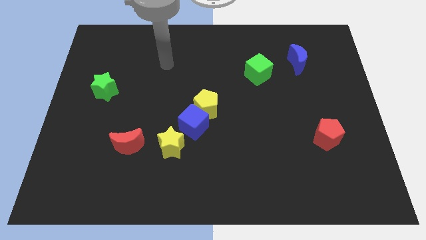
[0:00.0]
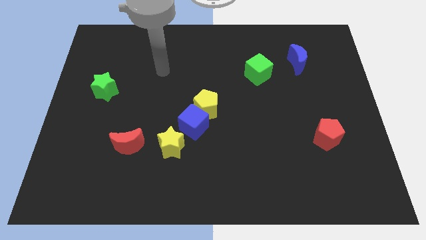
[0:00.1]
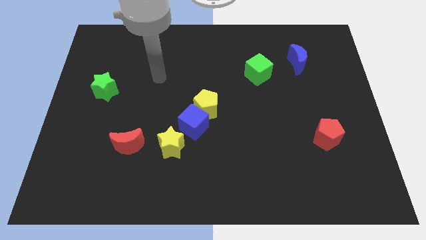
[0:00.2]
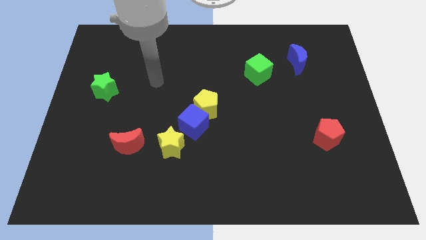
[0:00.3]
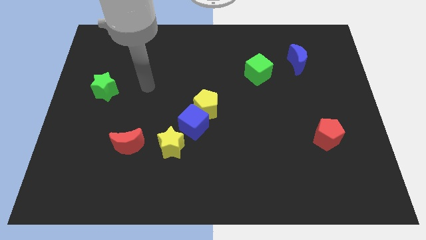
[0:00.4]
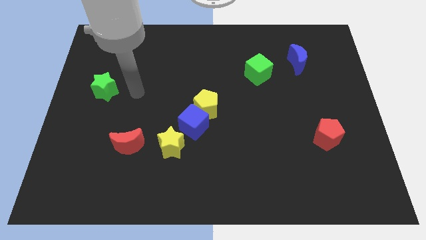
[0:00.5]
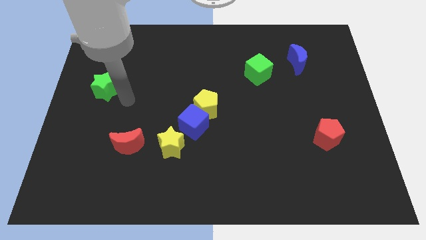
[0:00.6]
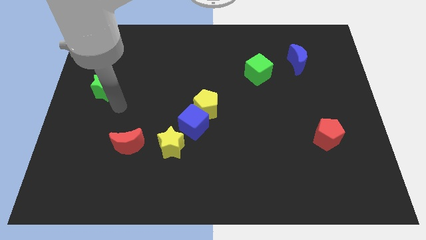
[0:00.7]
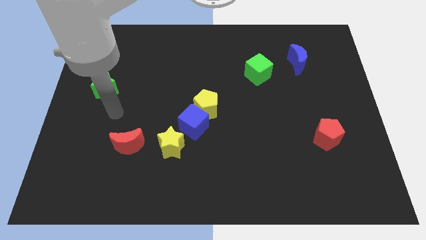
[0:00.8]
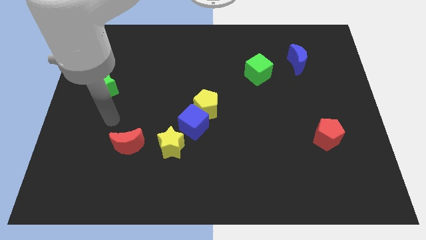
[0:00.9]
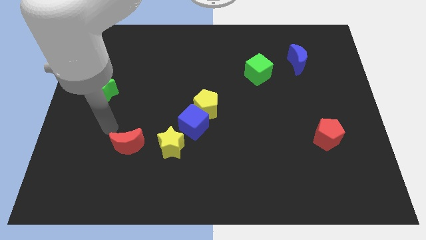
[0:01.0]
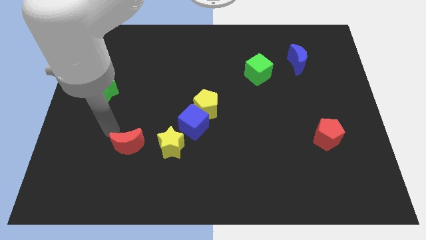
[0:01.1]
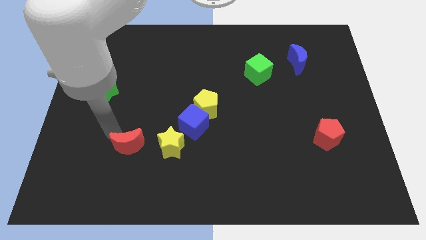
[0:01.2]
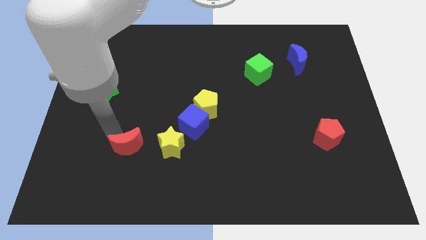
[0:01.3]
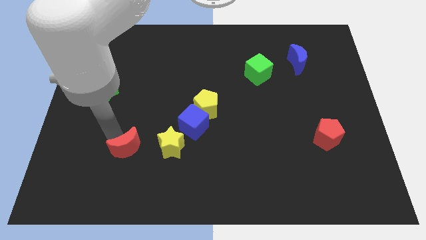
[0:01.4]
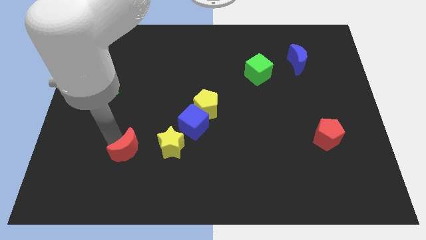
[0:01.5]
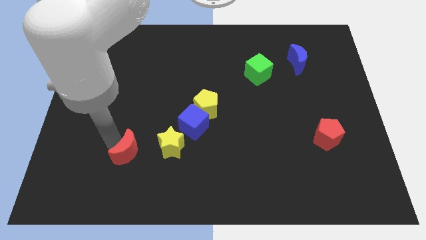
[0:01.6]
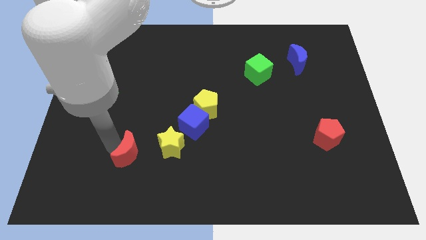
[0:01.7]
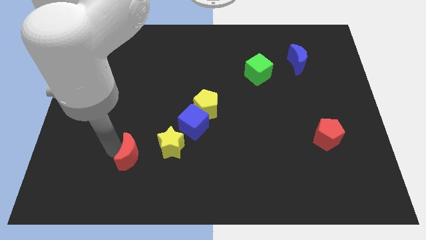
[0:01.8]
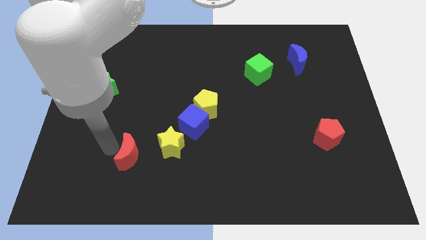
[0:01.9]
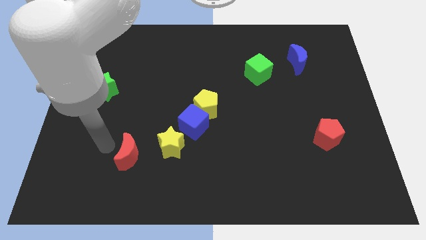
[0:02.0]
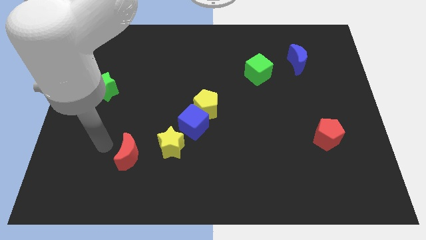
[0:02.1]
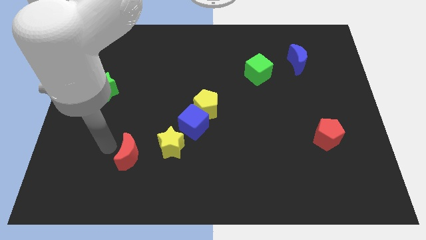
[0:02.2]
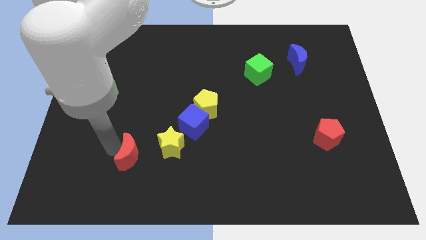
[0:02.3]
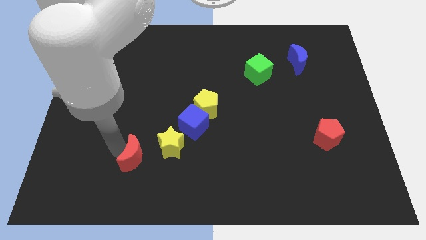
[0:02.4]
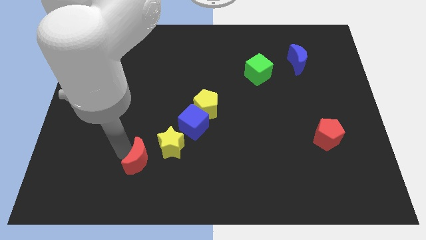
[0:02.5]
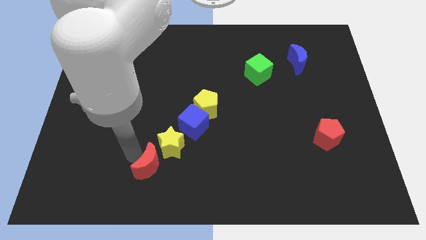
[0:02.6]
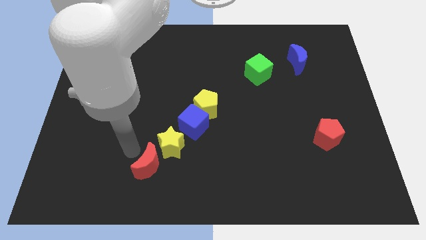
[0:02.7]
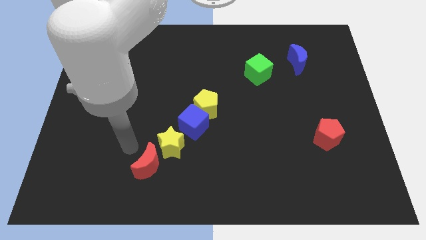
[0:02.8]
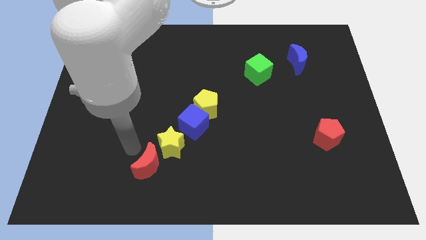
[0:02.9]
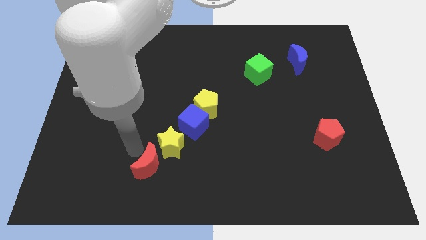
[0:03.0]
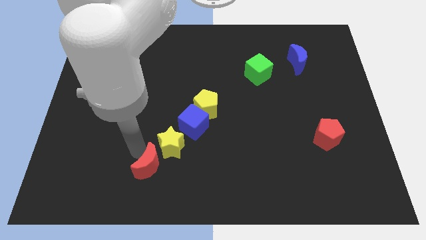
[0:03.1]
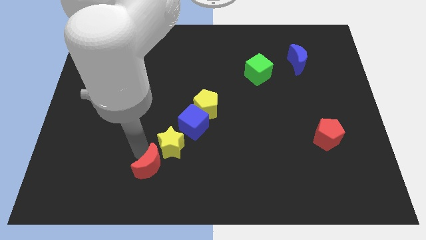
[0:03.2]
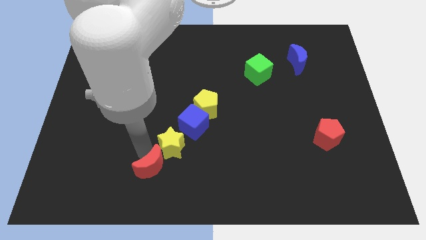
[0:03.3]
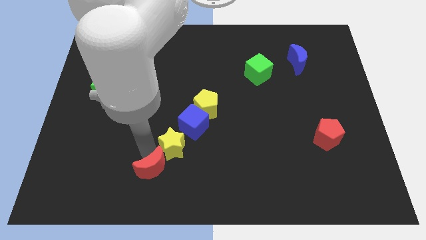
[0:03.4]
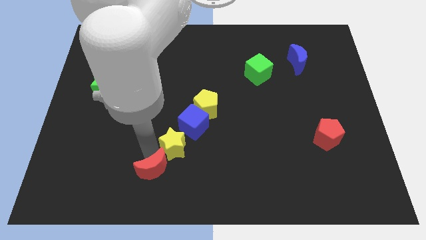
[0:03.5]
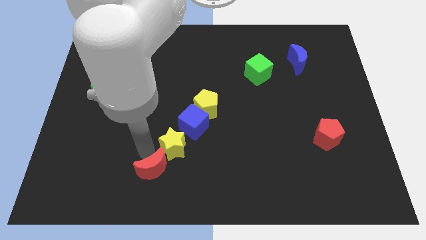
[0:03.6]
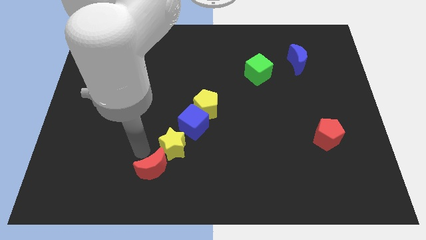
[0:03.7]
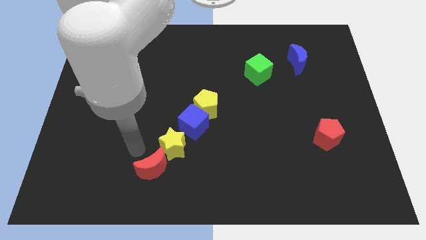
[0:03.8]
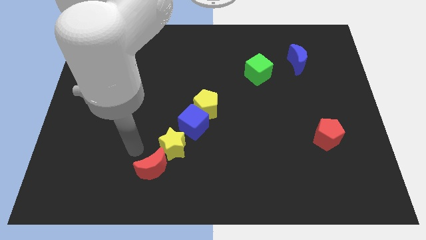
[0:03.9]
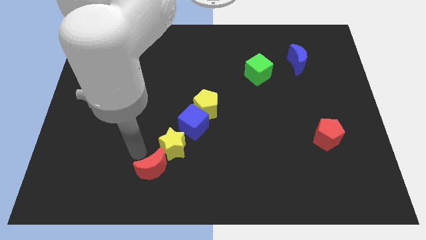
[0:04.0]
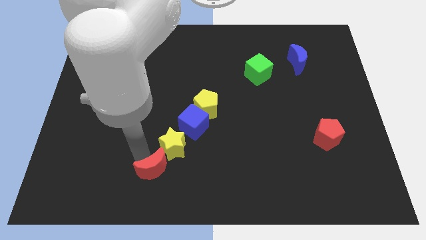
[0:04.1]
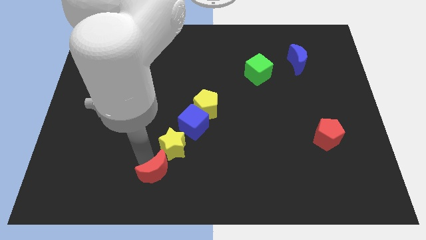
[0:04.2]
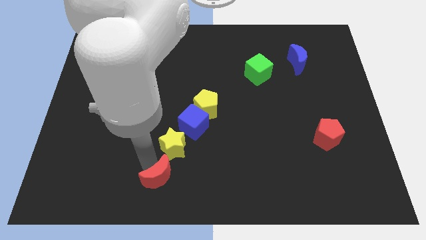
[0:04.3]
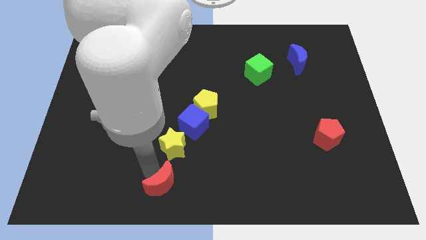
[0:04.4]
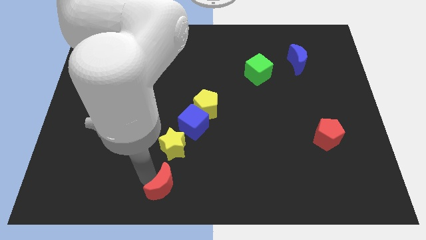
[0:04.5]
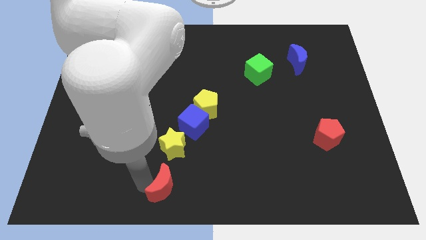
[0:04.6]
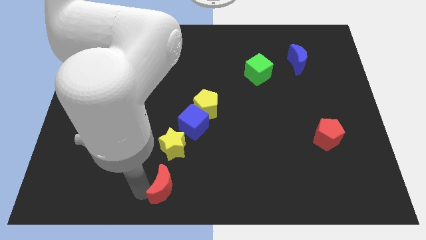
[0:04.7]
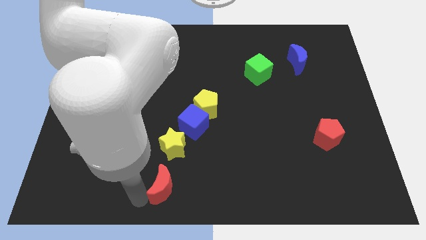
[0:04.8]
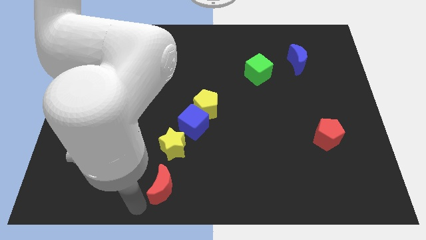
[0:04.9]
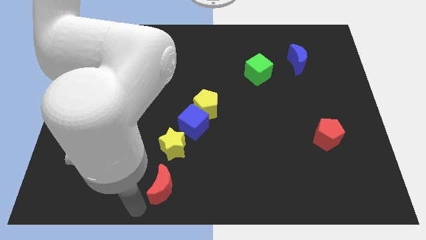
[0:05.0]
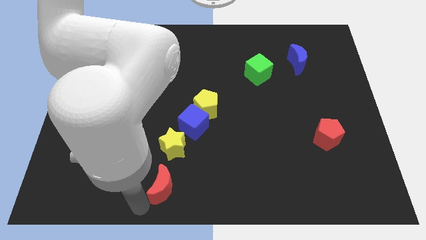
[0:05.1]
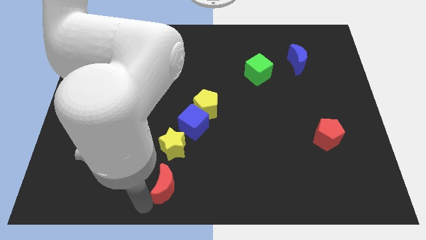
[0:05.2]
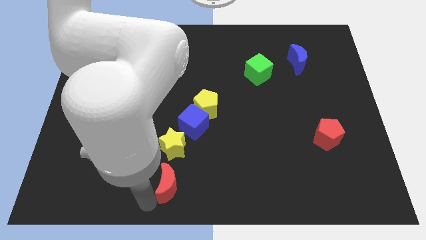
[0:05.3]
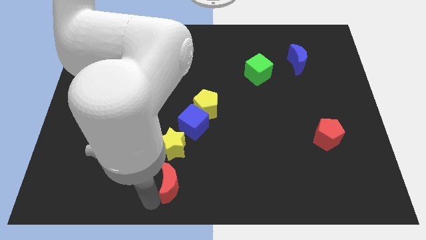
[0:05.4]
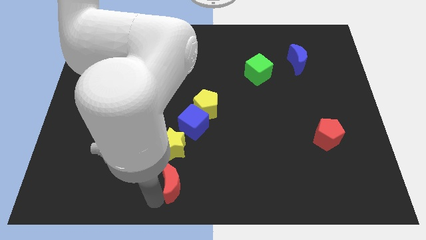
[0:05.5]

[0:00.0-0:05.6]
push the red moon below the blue cube

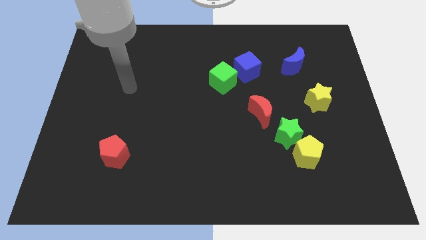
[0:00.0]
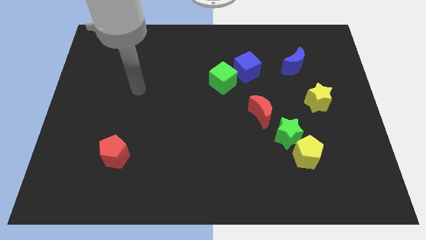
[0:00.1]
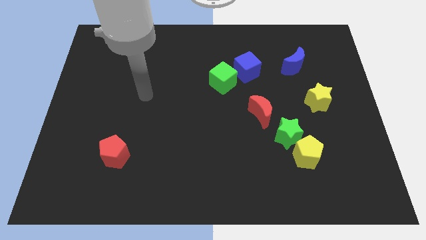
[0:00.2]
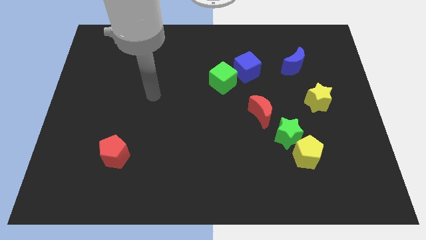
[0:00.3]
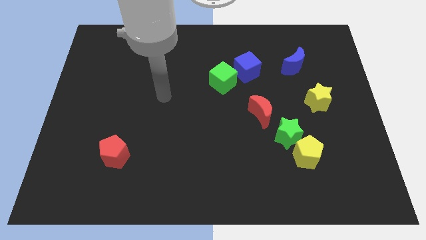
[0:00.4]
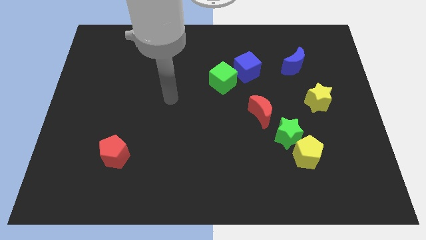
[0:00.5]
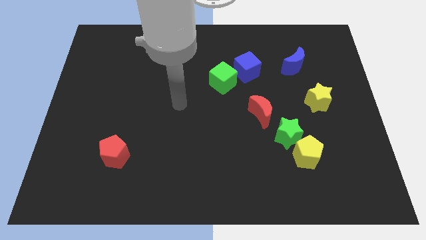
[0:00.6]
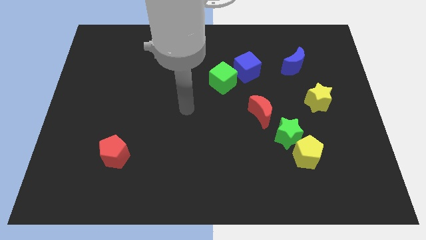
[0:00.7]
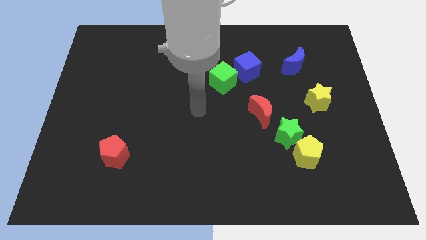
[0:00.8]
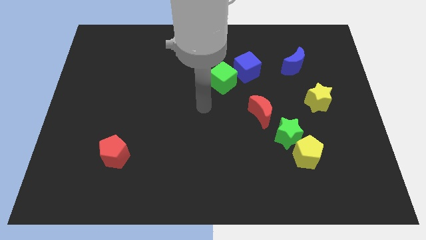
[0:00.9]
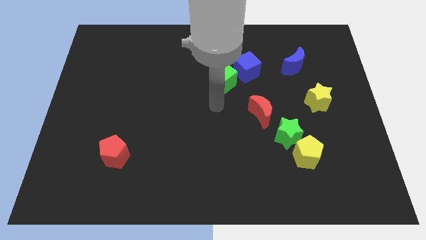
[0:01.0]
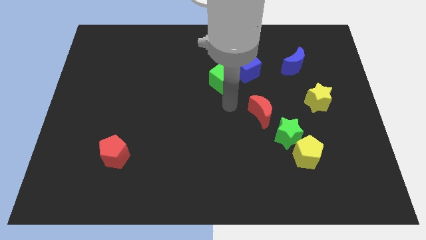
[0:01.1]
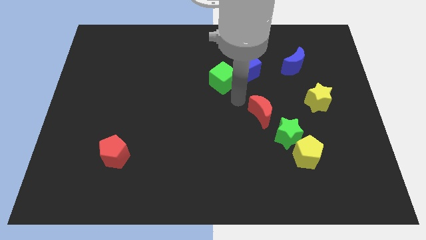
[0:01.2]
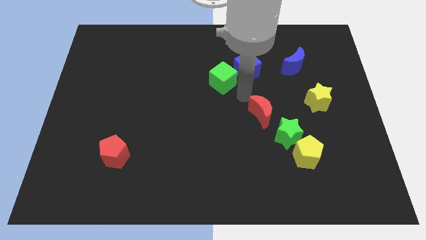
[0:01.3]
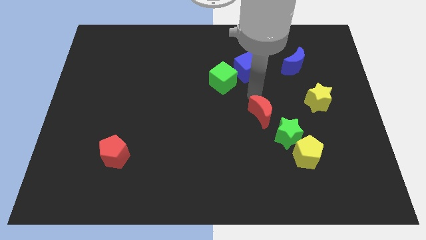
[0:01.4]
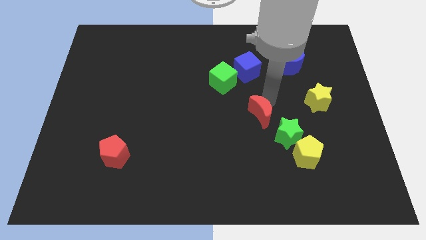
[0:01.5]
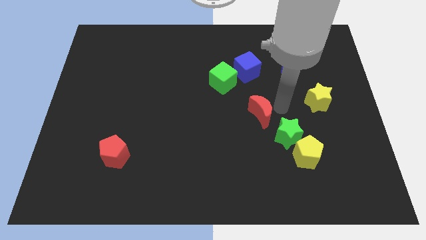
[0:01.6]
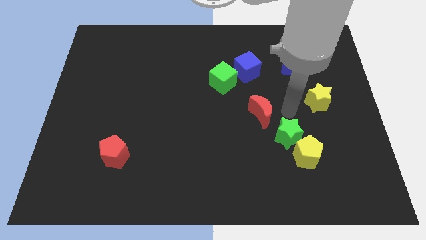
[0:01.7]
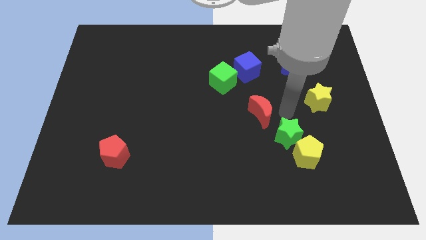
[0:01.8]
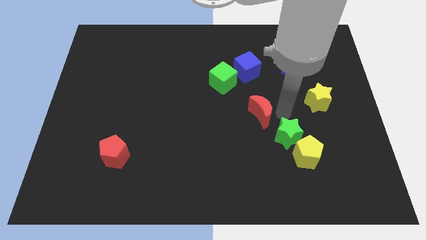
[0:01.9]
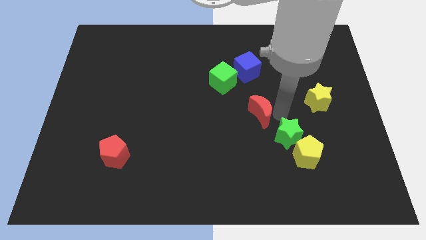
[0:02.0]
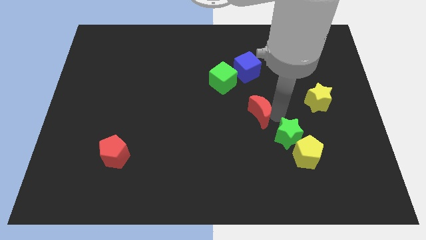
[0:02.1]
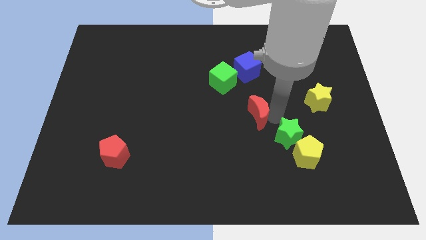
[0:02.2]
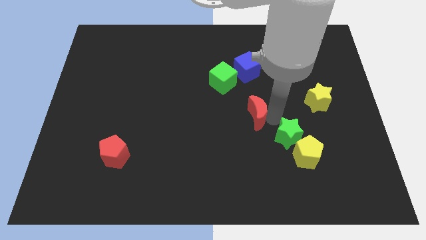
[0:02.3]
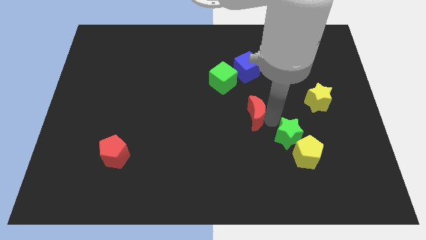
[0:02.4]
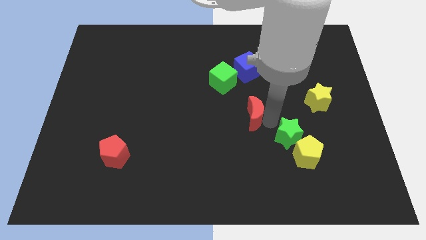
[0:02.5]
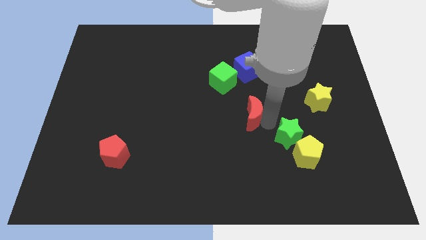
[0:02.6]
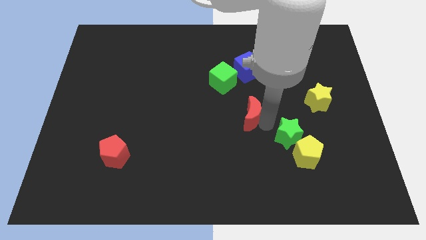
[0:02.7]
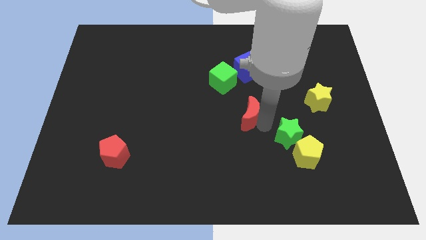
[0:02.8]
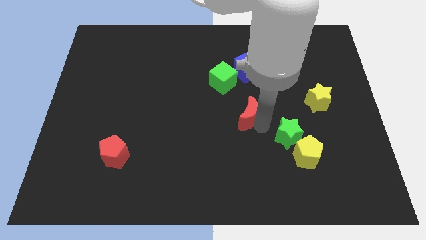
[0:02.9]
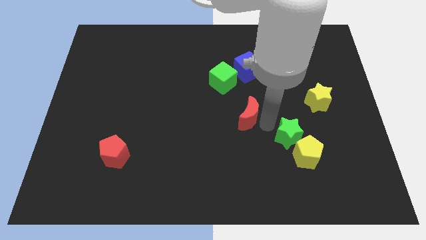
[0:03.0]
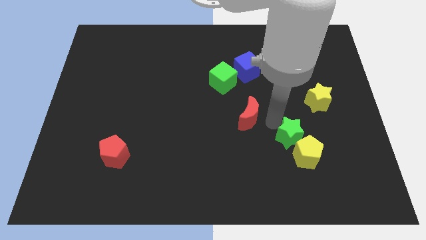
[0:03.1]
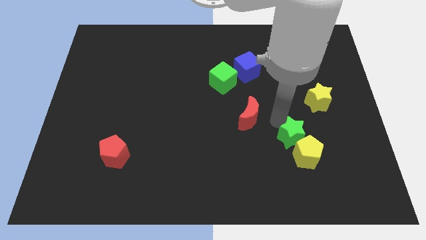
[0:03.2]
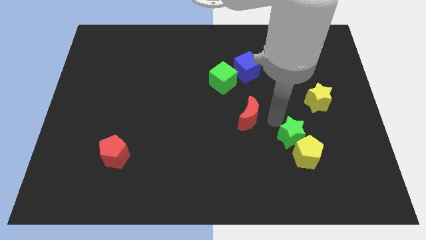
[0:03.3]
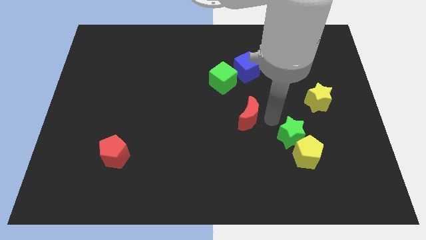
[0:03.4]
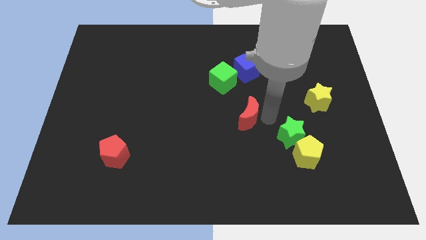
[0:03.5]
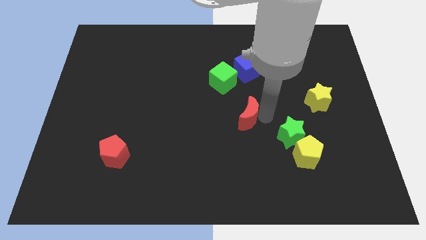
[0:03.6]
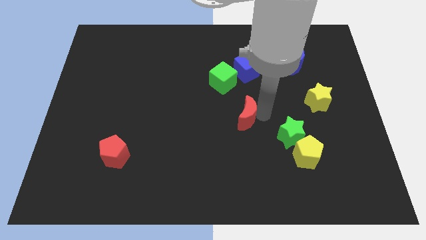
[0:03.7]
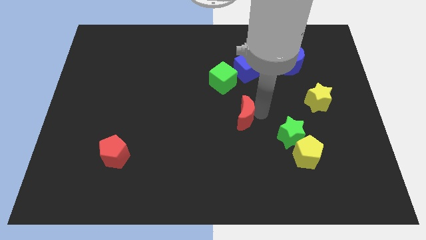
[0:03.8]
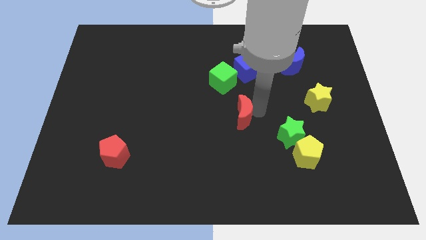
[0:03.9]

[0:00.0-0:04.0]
move the red moon below the green cube
